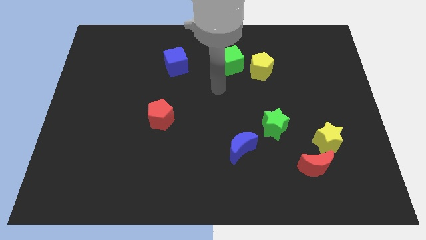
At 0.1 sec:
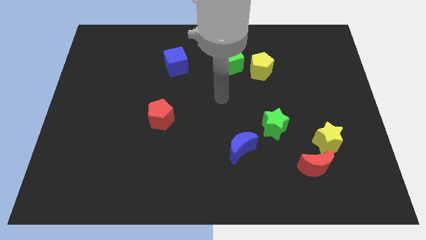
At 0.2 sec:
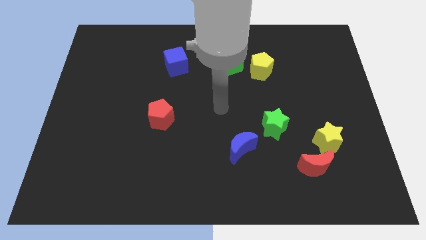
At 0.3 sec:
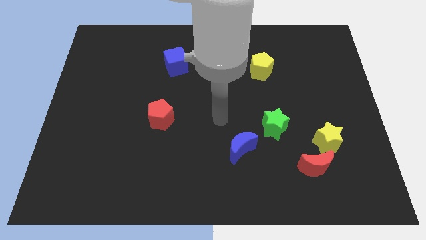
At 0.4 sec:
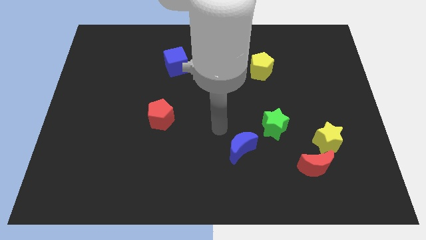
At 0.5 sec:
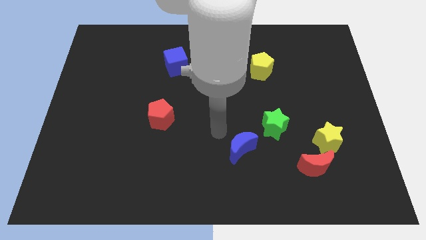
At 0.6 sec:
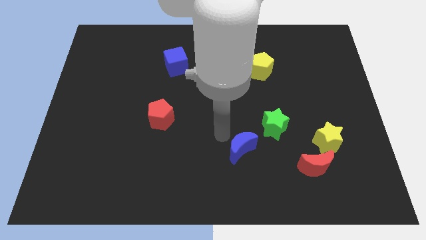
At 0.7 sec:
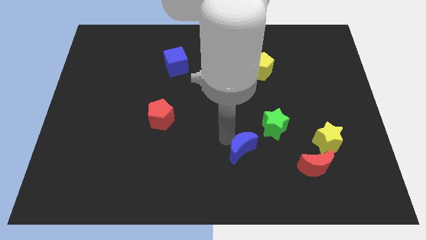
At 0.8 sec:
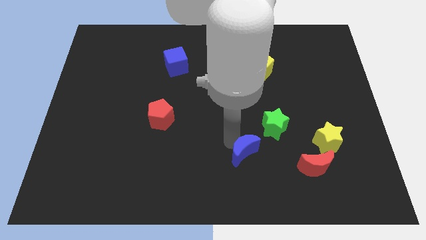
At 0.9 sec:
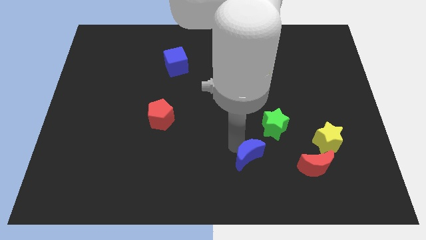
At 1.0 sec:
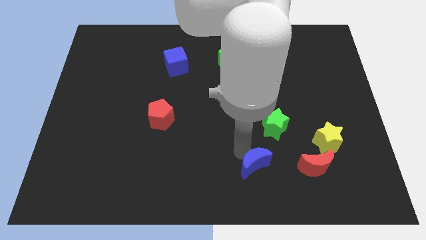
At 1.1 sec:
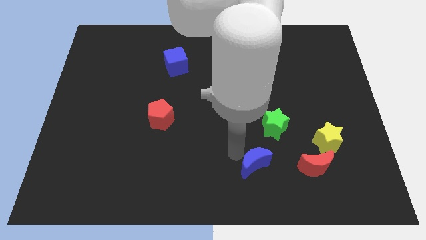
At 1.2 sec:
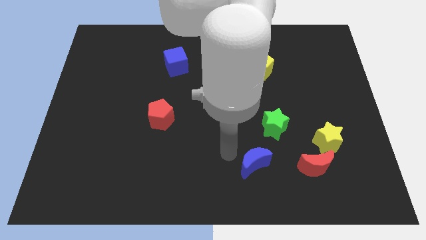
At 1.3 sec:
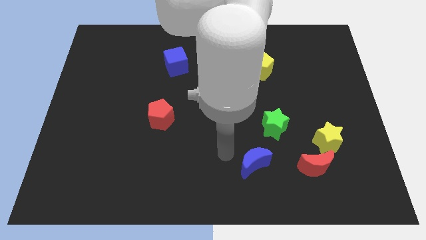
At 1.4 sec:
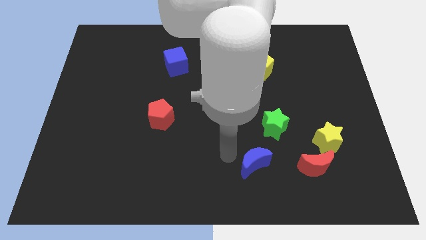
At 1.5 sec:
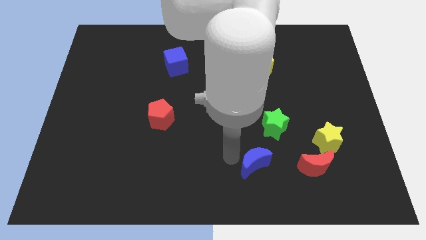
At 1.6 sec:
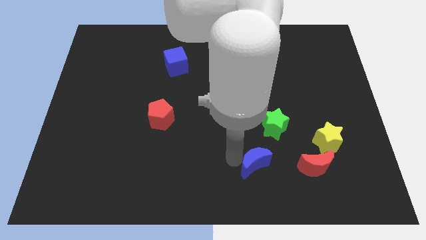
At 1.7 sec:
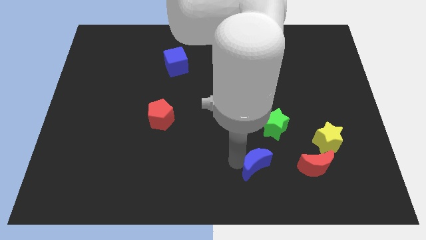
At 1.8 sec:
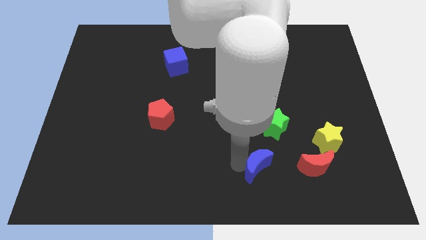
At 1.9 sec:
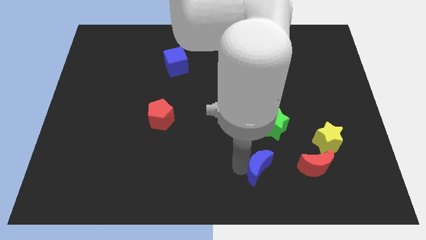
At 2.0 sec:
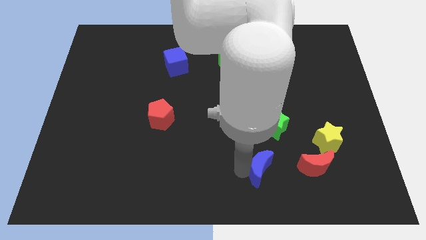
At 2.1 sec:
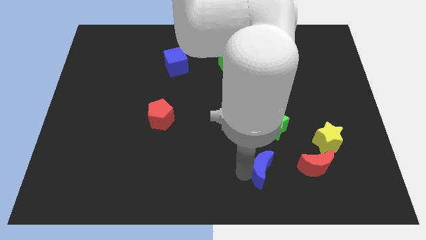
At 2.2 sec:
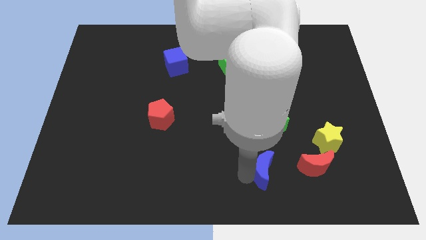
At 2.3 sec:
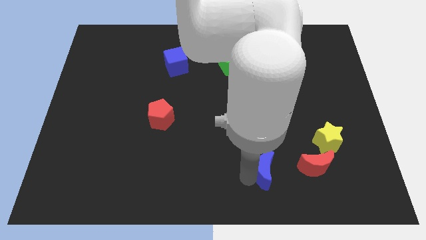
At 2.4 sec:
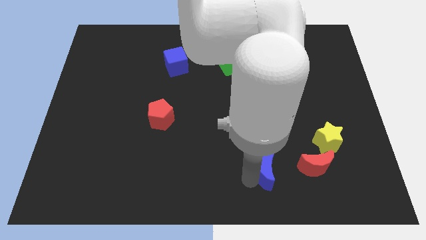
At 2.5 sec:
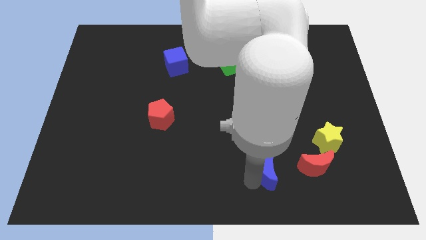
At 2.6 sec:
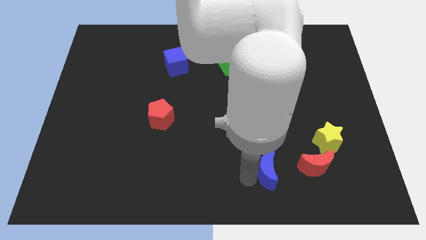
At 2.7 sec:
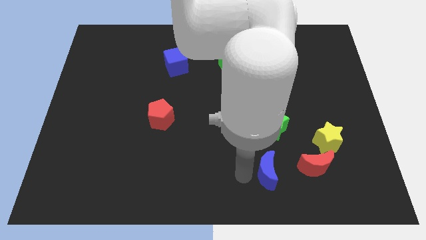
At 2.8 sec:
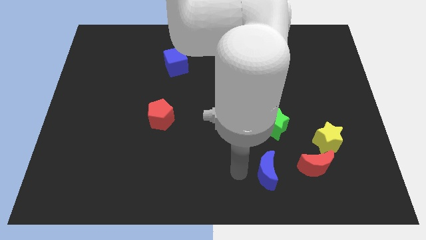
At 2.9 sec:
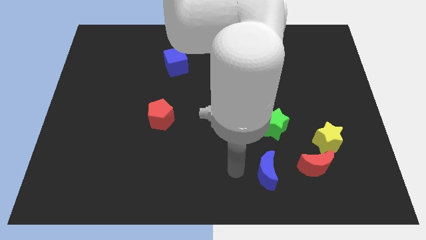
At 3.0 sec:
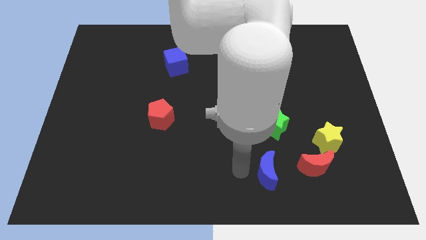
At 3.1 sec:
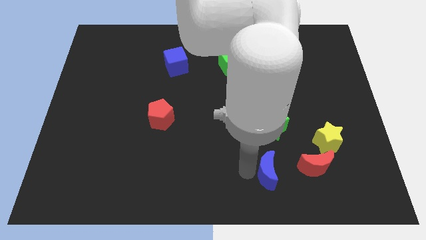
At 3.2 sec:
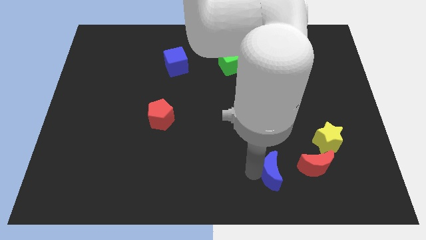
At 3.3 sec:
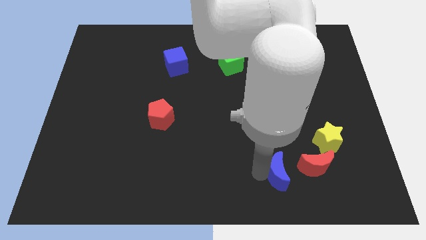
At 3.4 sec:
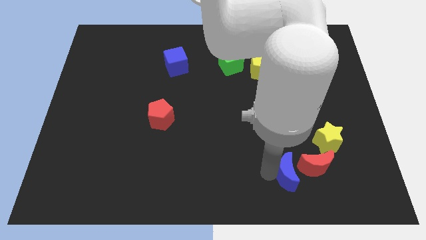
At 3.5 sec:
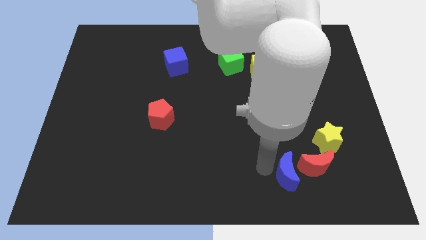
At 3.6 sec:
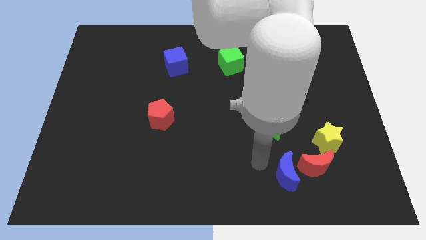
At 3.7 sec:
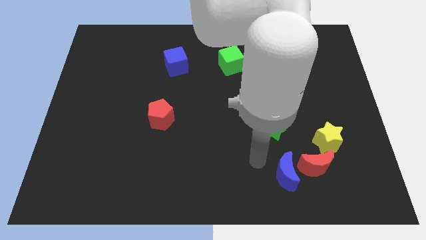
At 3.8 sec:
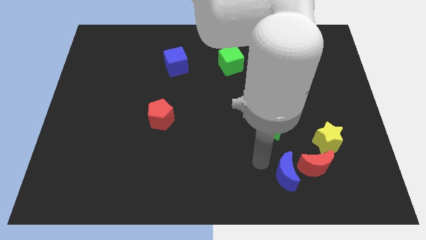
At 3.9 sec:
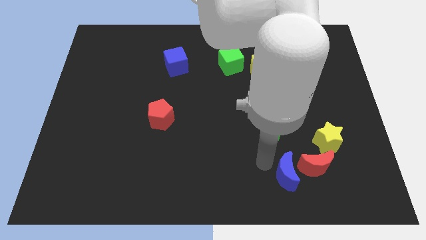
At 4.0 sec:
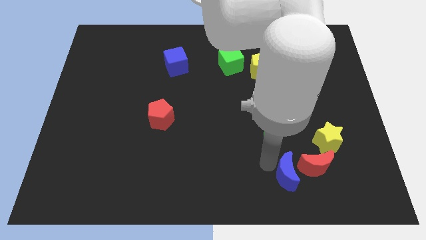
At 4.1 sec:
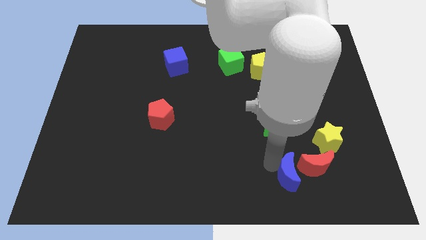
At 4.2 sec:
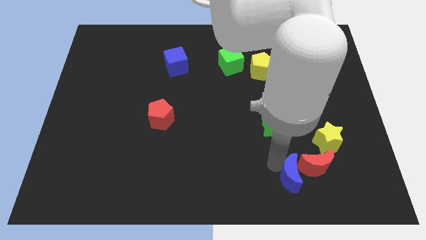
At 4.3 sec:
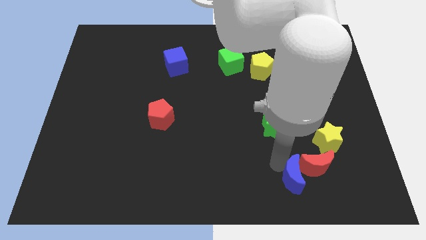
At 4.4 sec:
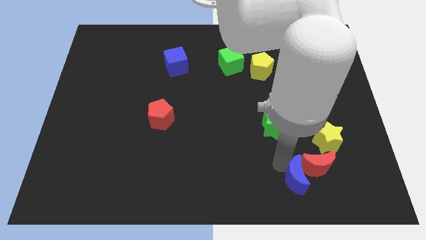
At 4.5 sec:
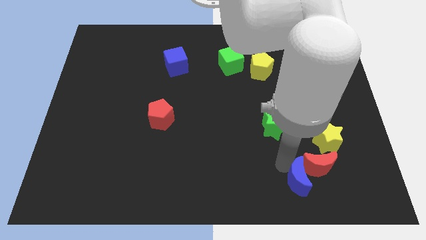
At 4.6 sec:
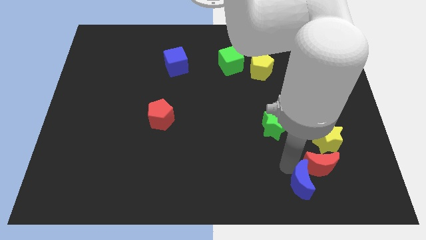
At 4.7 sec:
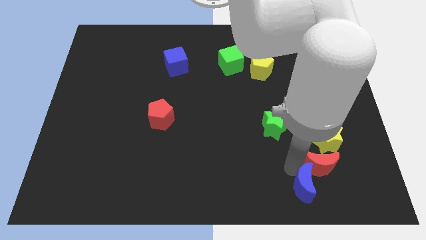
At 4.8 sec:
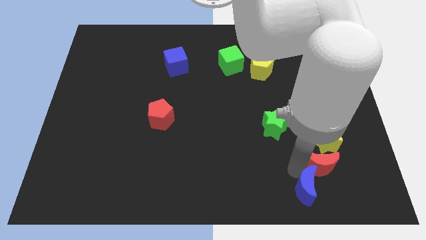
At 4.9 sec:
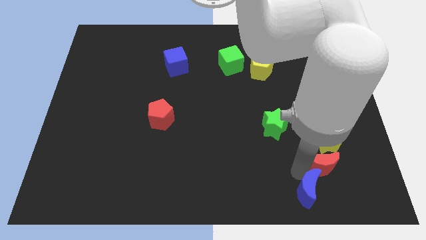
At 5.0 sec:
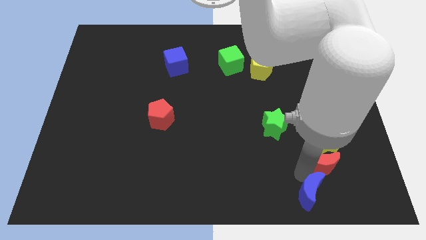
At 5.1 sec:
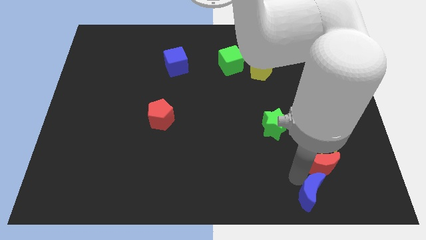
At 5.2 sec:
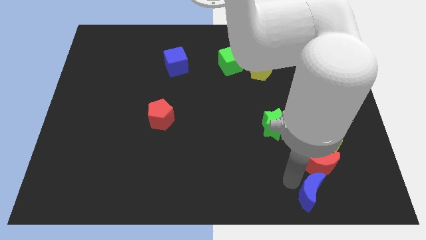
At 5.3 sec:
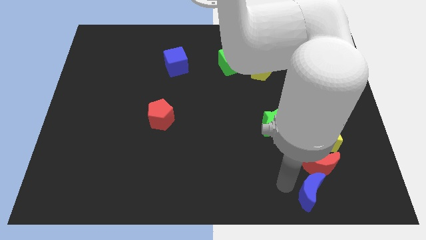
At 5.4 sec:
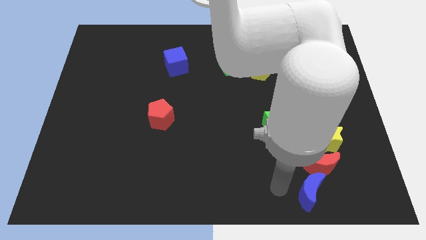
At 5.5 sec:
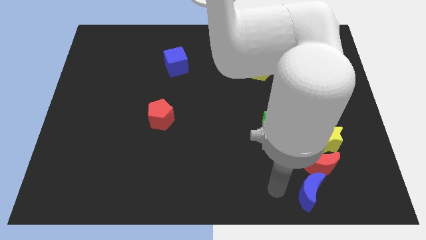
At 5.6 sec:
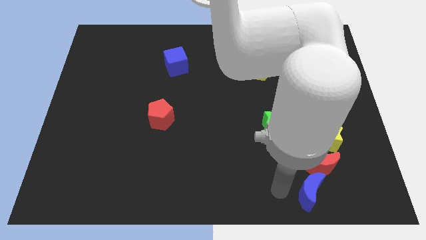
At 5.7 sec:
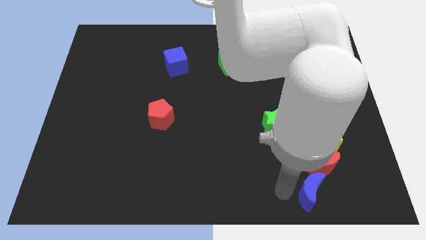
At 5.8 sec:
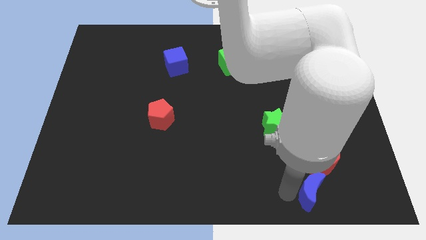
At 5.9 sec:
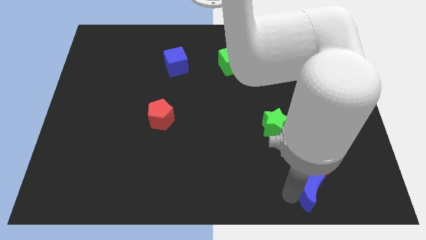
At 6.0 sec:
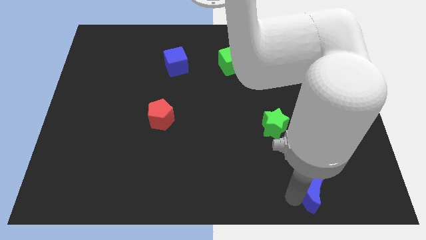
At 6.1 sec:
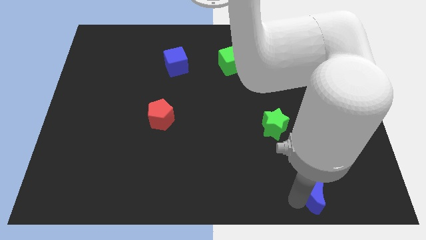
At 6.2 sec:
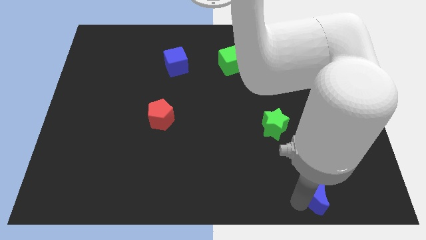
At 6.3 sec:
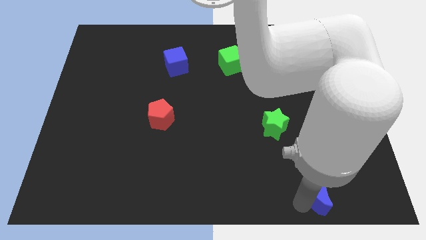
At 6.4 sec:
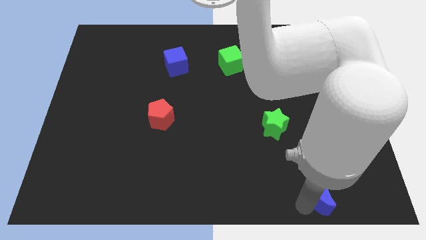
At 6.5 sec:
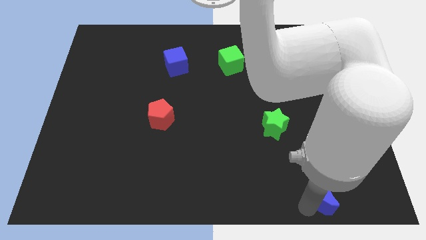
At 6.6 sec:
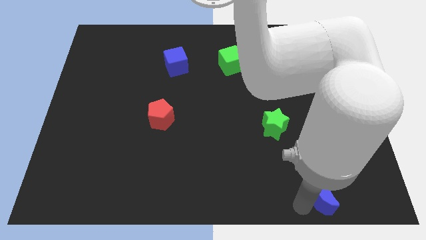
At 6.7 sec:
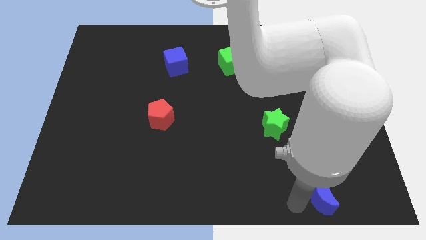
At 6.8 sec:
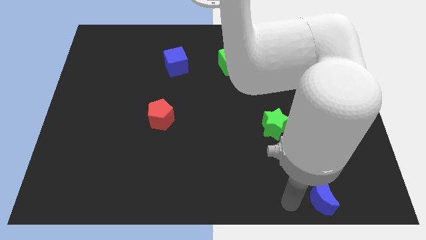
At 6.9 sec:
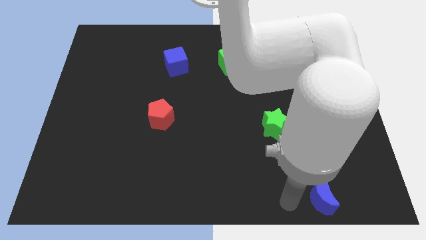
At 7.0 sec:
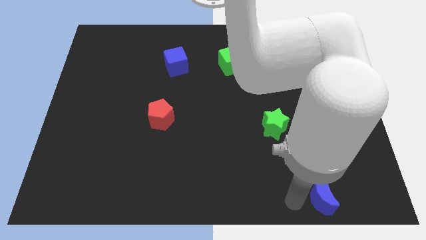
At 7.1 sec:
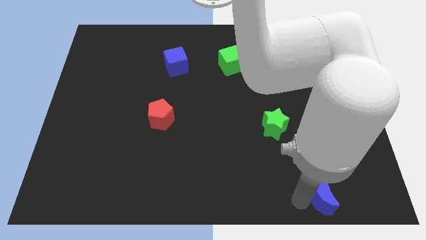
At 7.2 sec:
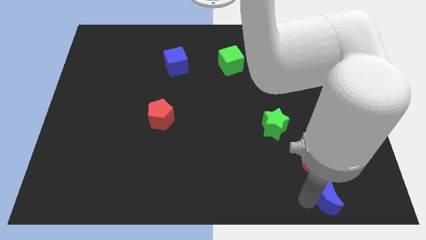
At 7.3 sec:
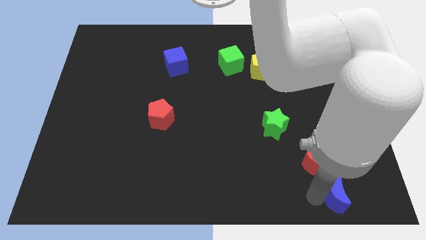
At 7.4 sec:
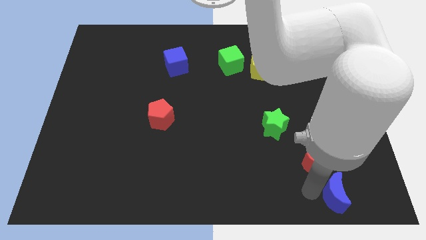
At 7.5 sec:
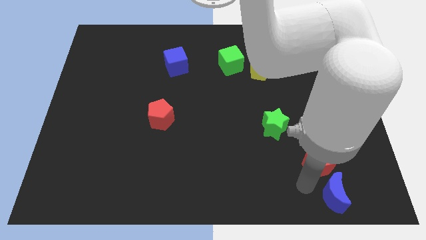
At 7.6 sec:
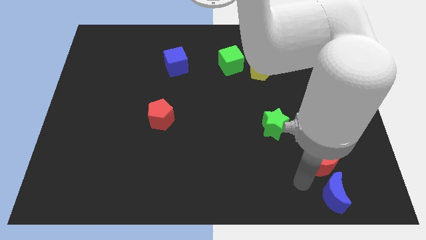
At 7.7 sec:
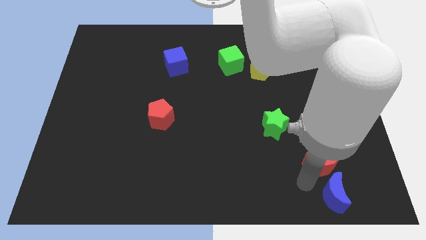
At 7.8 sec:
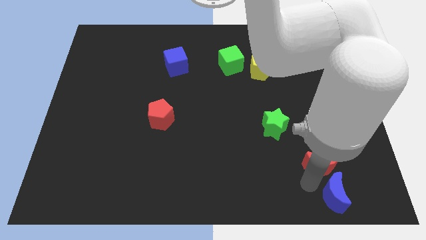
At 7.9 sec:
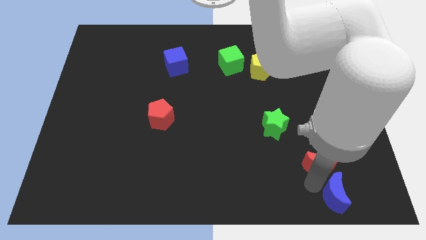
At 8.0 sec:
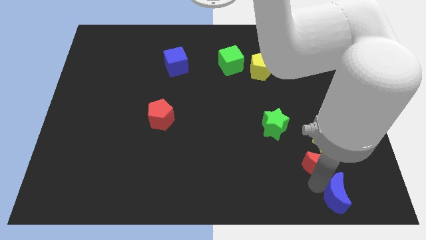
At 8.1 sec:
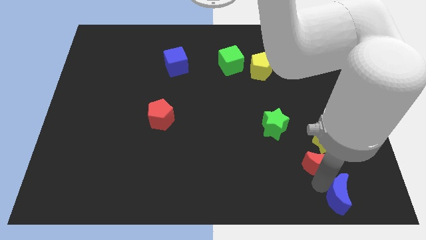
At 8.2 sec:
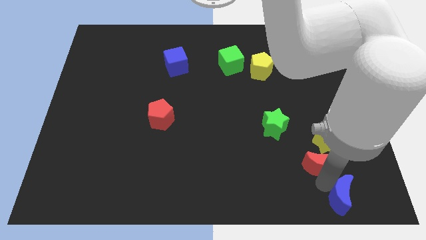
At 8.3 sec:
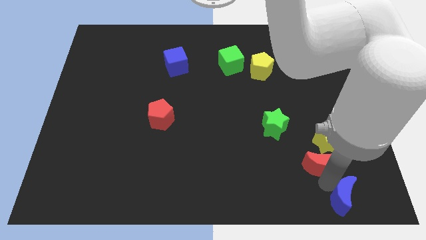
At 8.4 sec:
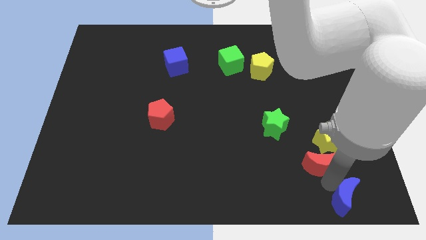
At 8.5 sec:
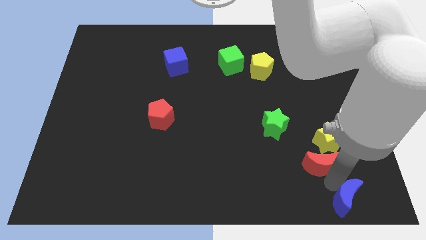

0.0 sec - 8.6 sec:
slide the blue moon to the bottom right of the board
